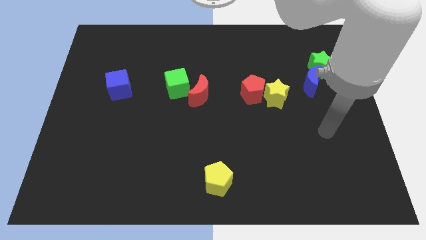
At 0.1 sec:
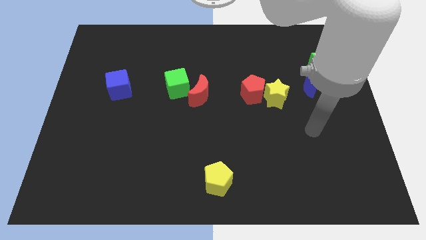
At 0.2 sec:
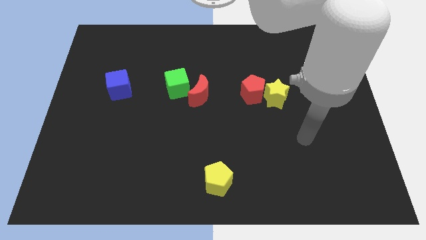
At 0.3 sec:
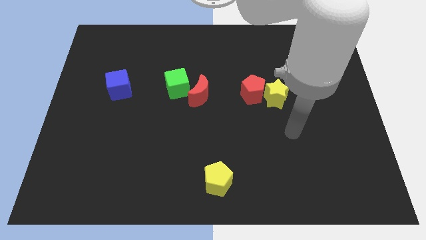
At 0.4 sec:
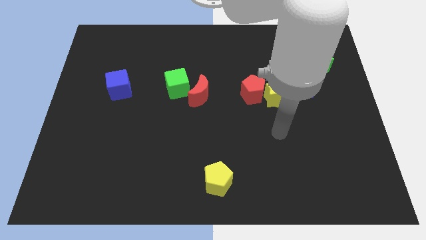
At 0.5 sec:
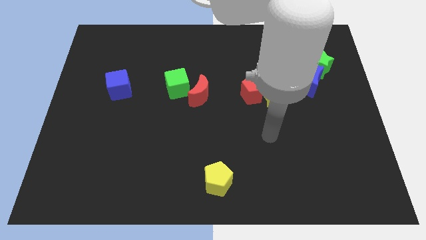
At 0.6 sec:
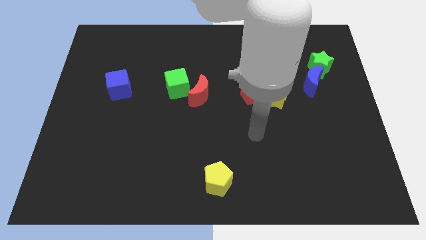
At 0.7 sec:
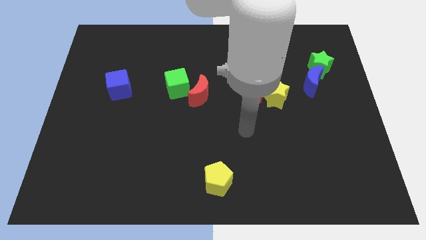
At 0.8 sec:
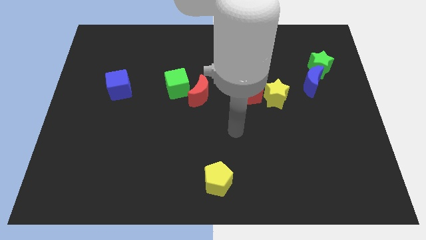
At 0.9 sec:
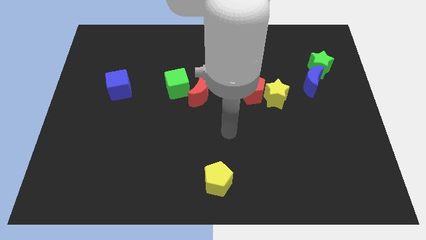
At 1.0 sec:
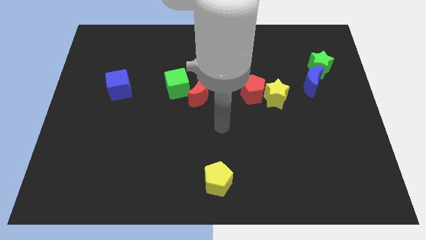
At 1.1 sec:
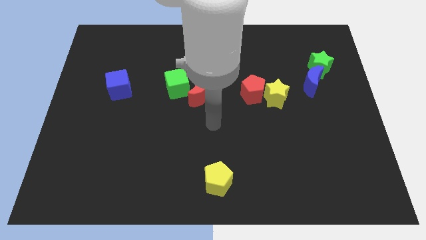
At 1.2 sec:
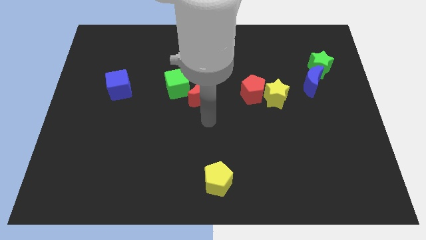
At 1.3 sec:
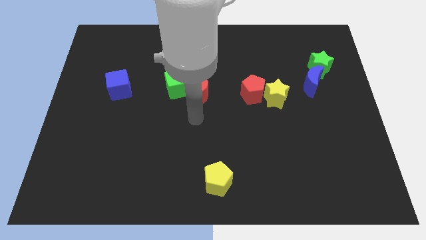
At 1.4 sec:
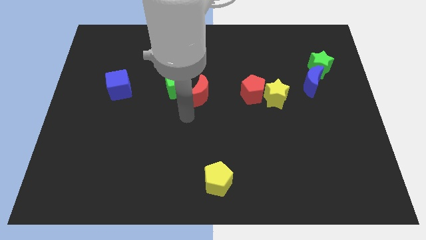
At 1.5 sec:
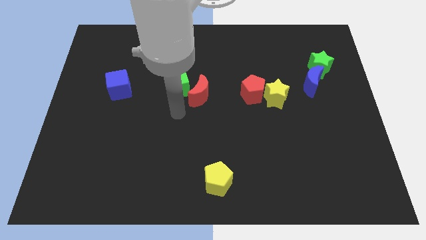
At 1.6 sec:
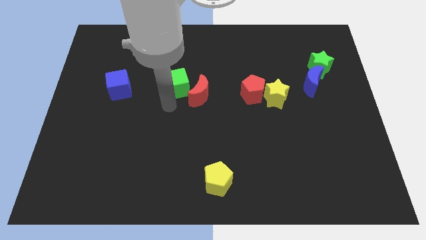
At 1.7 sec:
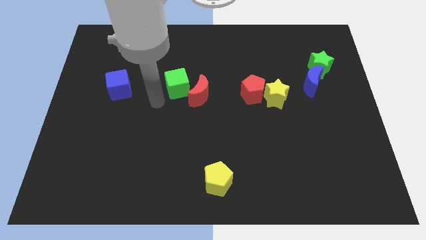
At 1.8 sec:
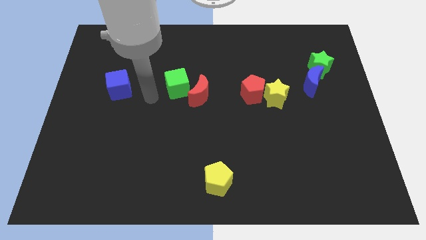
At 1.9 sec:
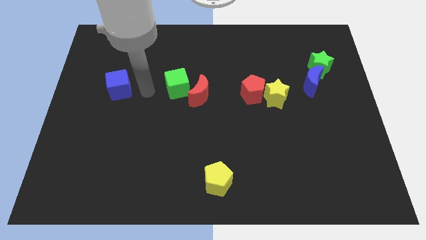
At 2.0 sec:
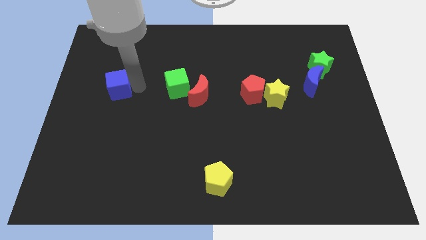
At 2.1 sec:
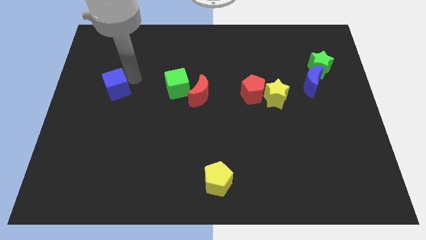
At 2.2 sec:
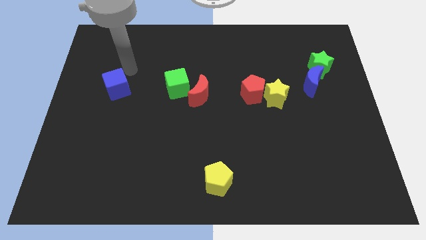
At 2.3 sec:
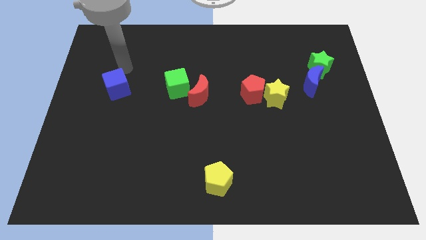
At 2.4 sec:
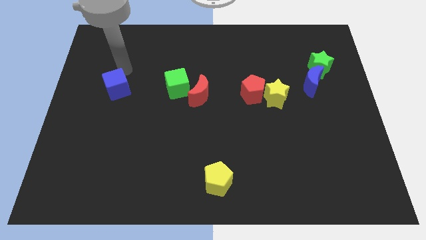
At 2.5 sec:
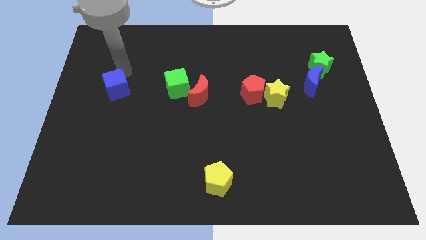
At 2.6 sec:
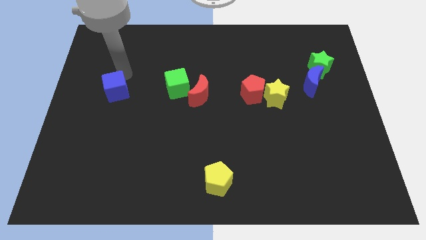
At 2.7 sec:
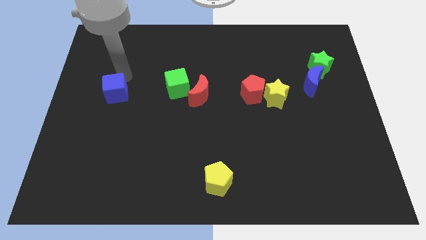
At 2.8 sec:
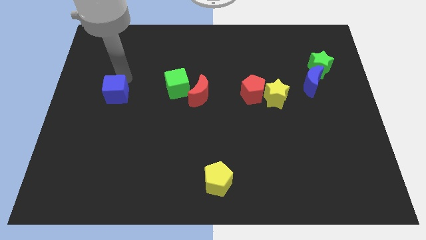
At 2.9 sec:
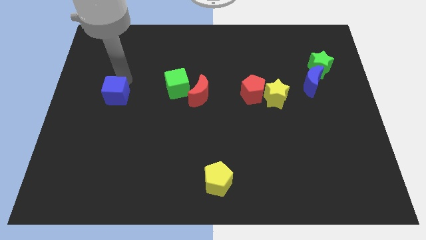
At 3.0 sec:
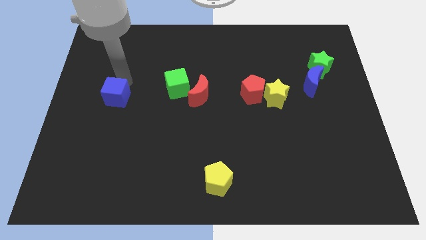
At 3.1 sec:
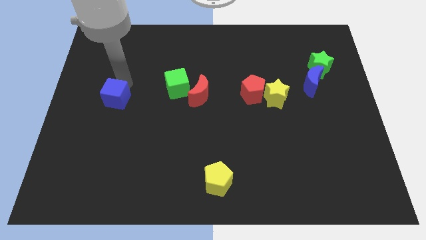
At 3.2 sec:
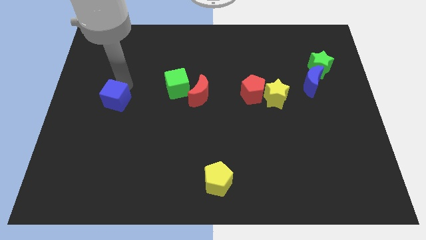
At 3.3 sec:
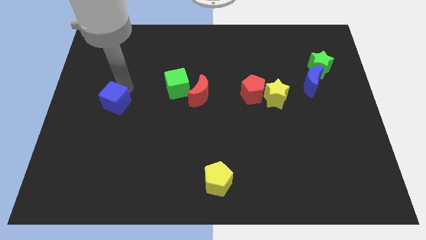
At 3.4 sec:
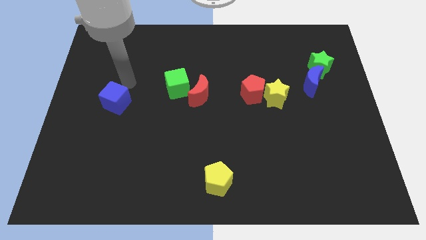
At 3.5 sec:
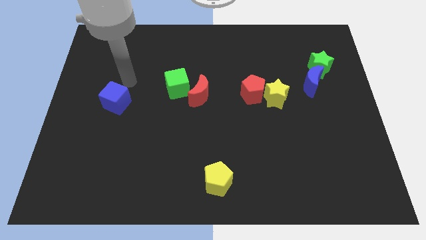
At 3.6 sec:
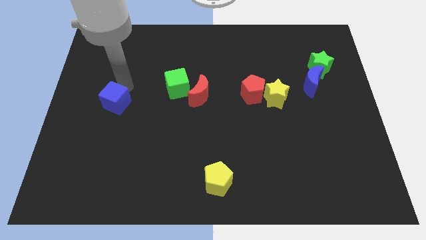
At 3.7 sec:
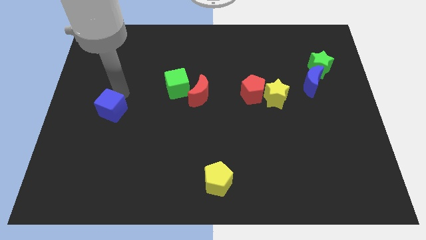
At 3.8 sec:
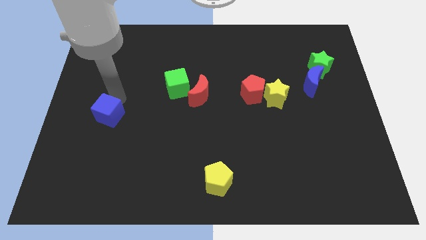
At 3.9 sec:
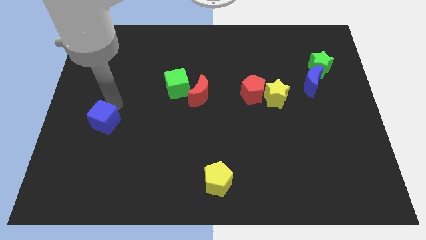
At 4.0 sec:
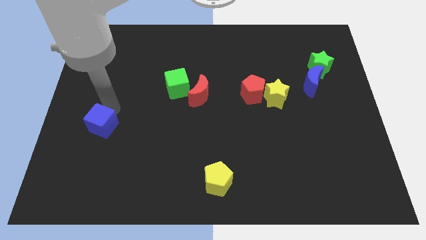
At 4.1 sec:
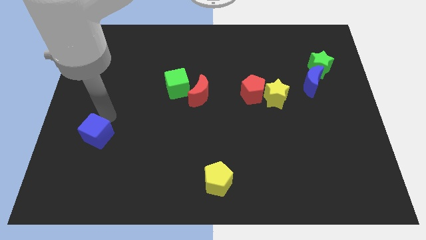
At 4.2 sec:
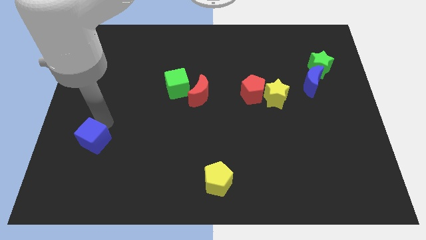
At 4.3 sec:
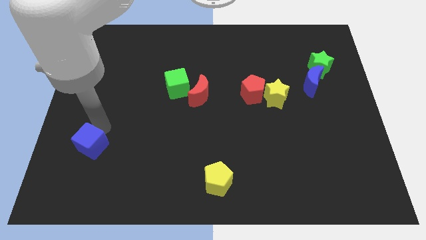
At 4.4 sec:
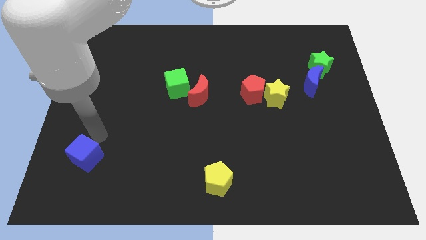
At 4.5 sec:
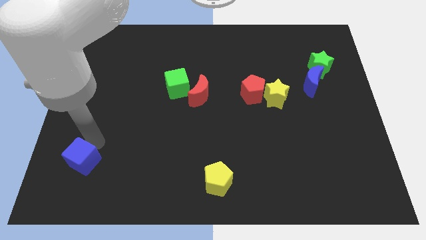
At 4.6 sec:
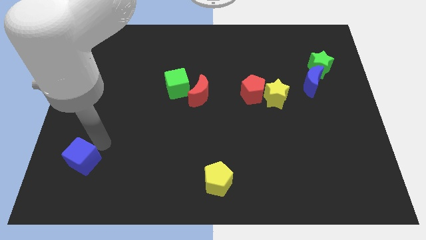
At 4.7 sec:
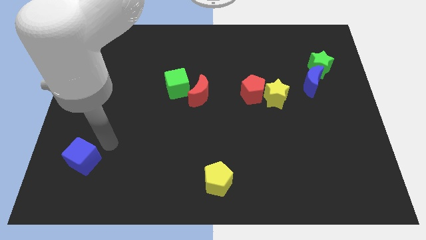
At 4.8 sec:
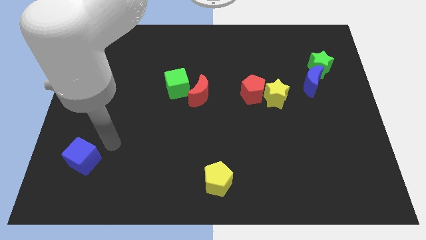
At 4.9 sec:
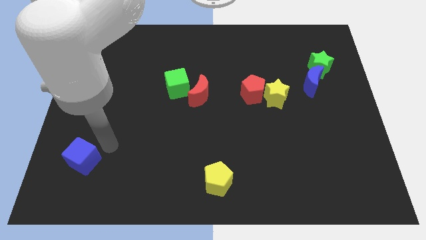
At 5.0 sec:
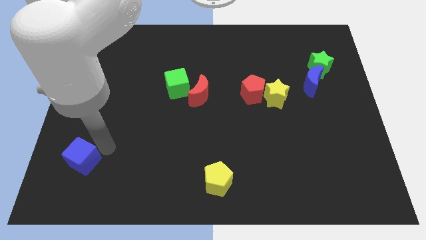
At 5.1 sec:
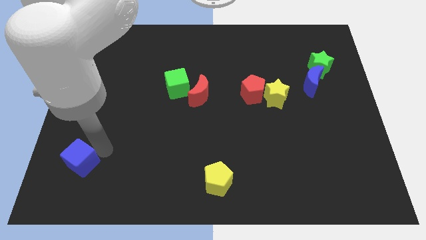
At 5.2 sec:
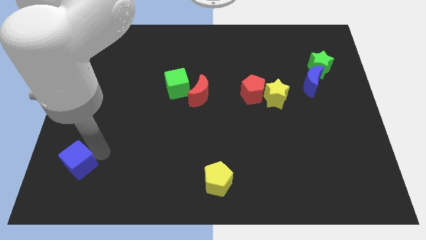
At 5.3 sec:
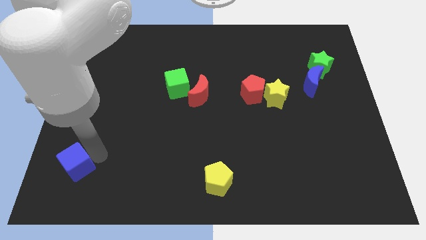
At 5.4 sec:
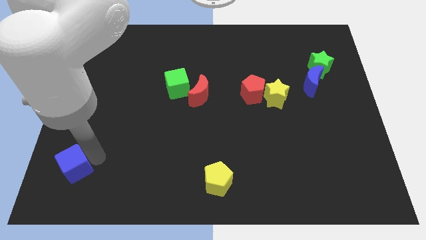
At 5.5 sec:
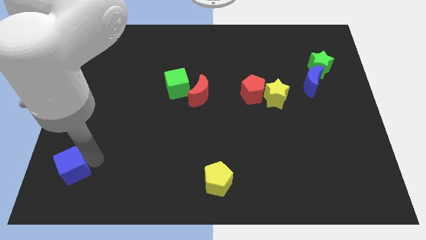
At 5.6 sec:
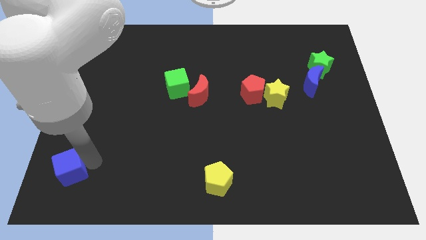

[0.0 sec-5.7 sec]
put the blue cube to the bottom left

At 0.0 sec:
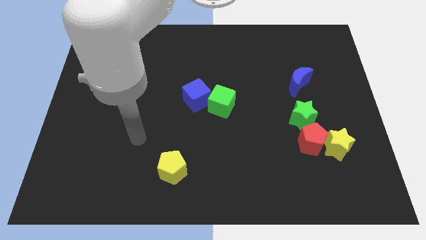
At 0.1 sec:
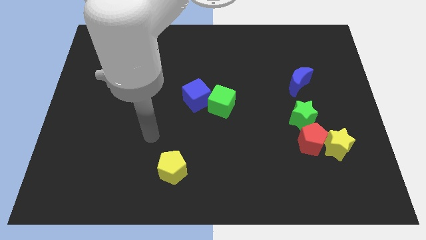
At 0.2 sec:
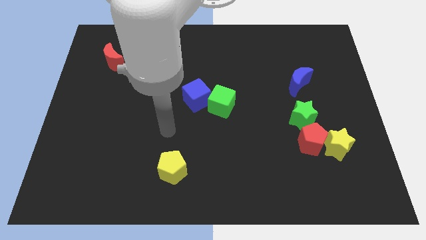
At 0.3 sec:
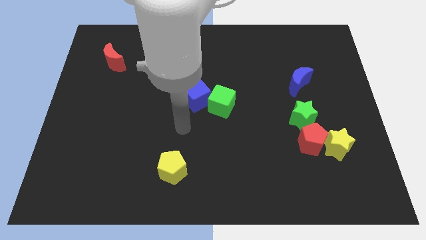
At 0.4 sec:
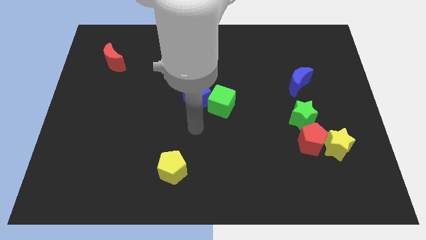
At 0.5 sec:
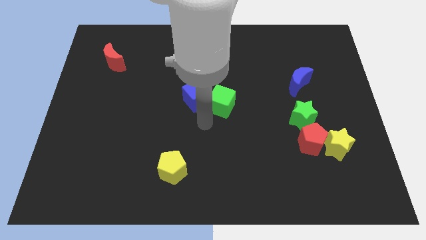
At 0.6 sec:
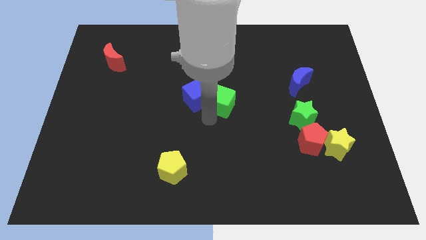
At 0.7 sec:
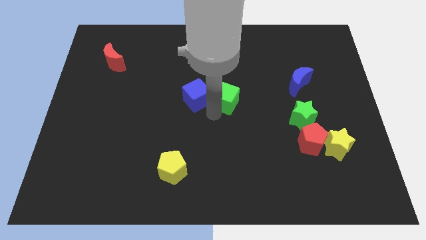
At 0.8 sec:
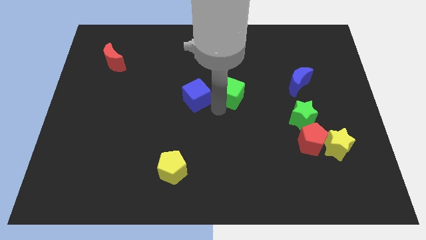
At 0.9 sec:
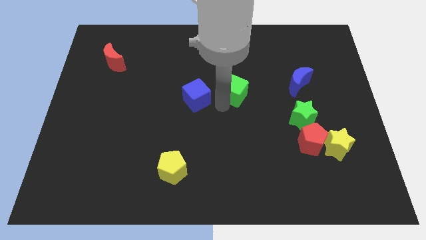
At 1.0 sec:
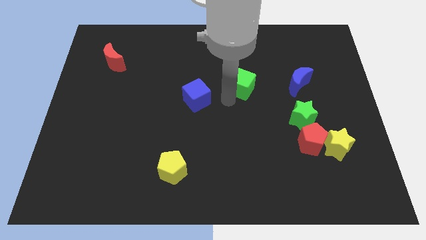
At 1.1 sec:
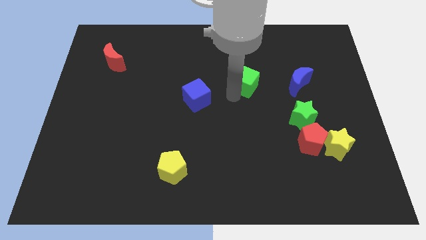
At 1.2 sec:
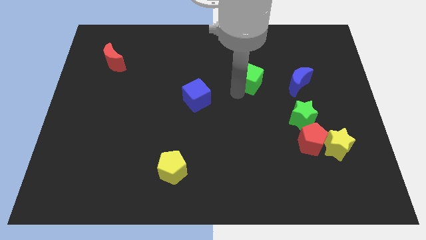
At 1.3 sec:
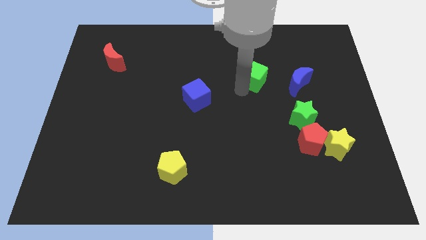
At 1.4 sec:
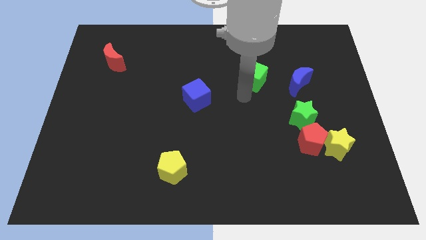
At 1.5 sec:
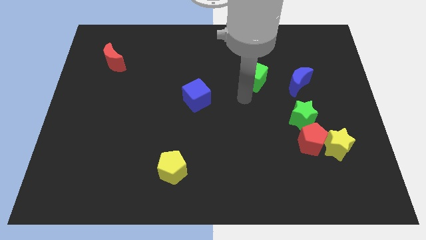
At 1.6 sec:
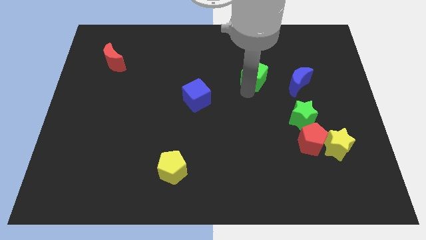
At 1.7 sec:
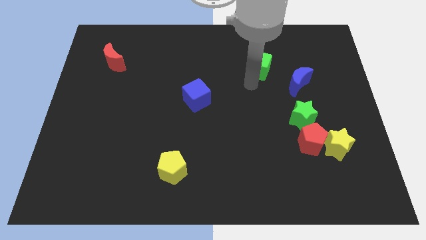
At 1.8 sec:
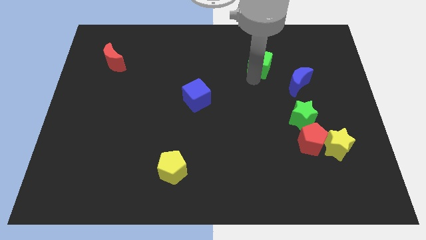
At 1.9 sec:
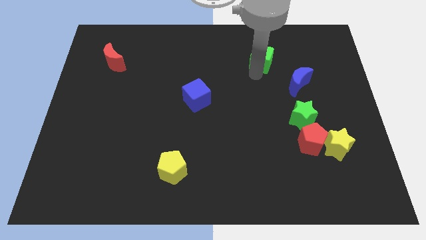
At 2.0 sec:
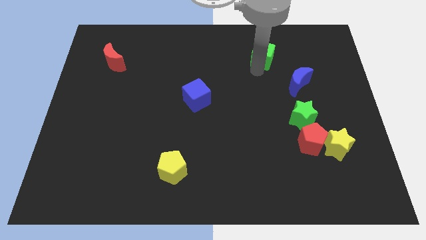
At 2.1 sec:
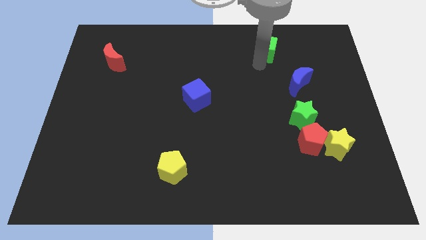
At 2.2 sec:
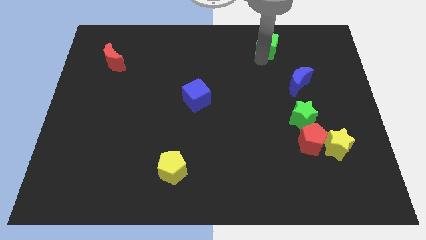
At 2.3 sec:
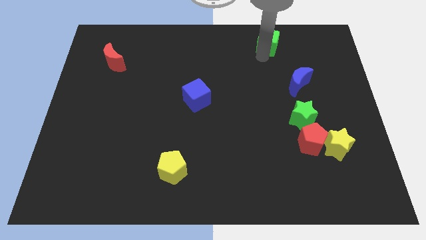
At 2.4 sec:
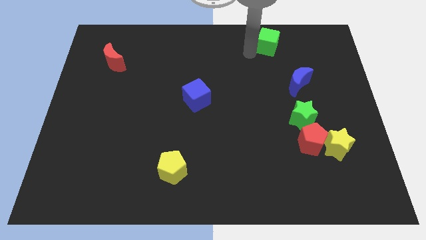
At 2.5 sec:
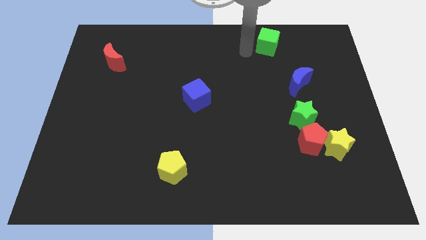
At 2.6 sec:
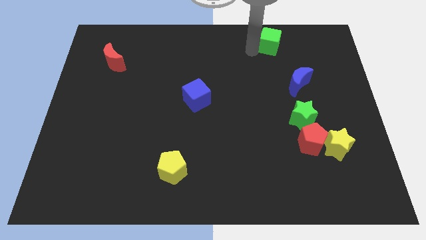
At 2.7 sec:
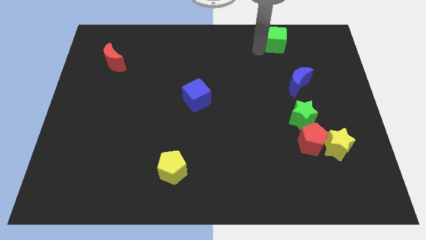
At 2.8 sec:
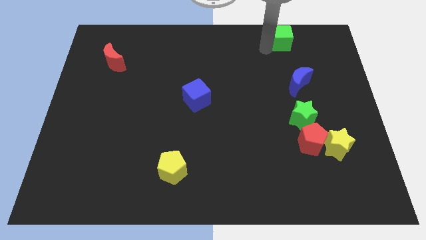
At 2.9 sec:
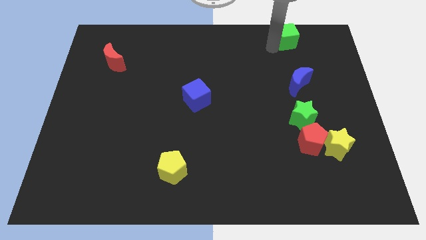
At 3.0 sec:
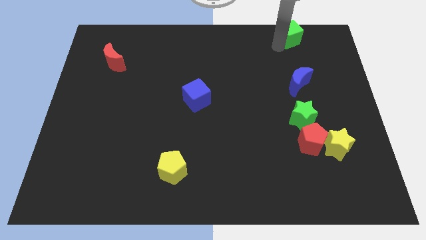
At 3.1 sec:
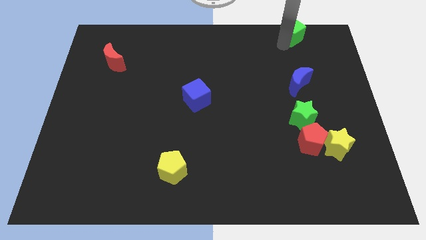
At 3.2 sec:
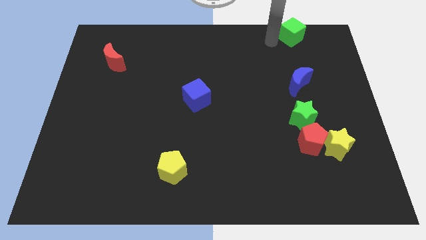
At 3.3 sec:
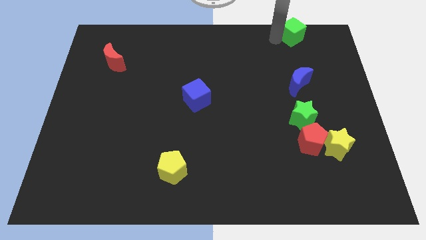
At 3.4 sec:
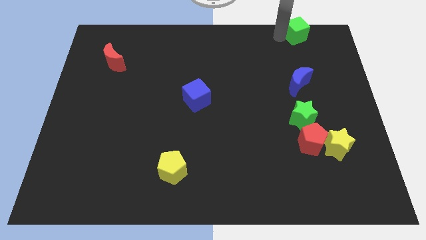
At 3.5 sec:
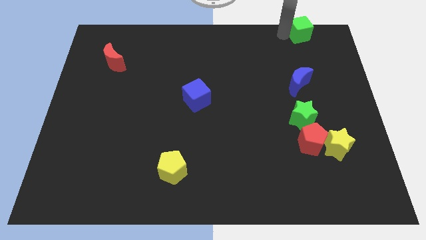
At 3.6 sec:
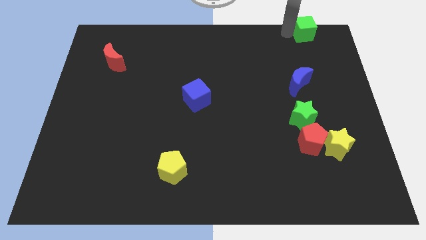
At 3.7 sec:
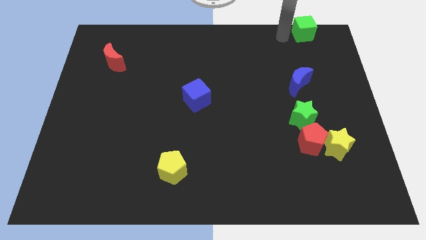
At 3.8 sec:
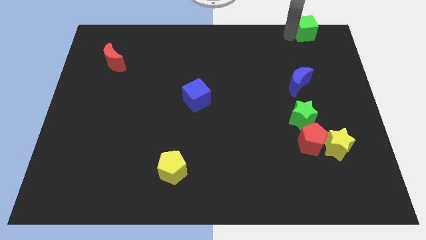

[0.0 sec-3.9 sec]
push the green cube to the upper right corner
